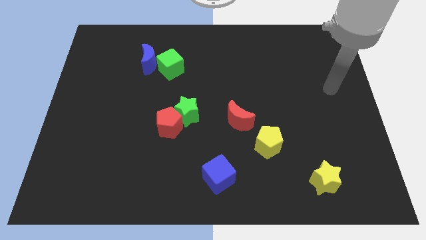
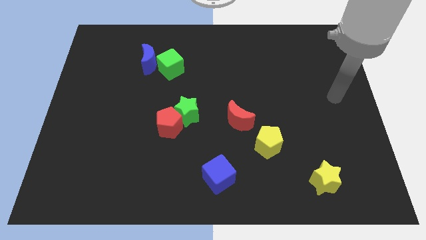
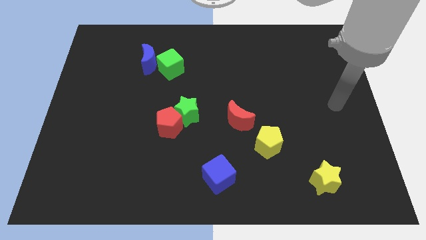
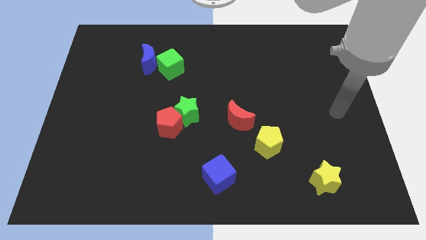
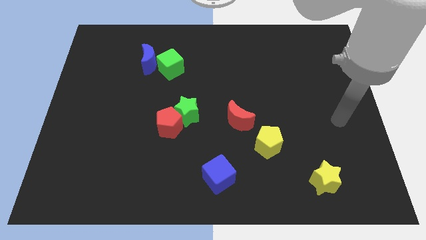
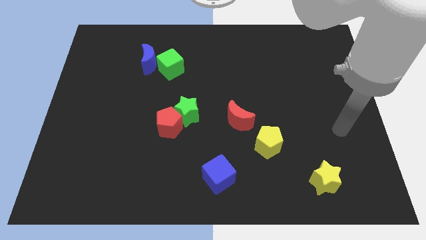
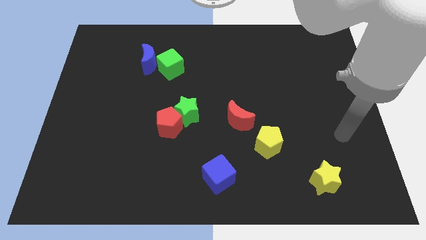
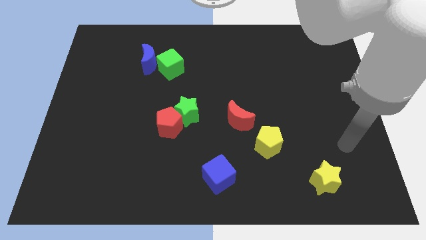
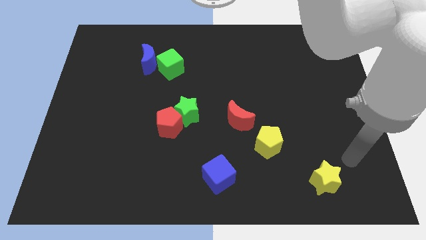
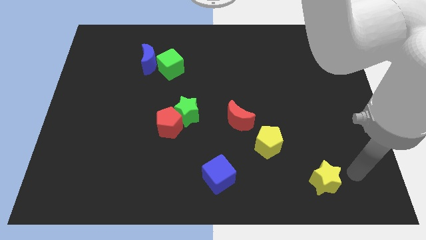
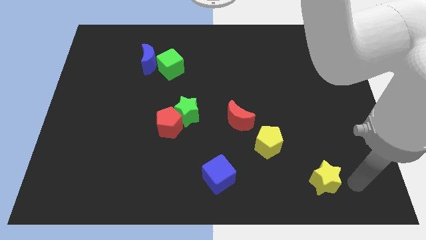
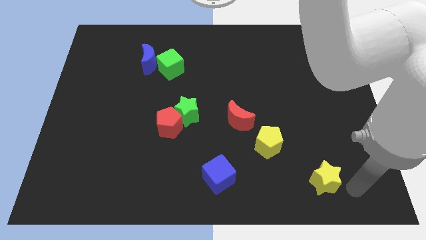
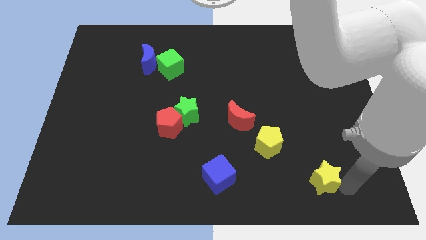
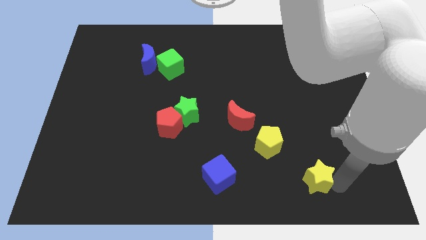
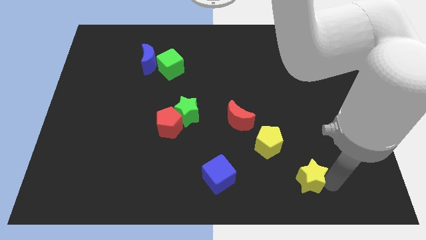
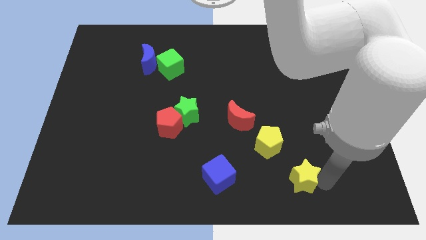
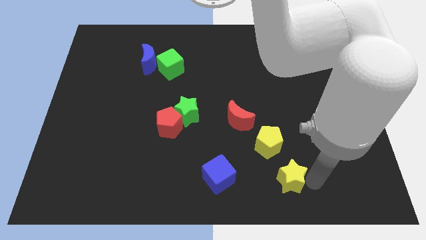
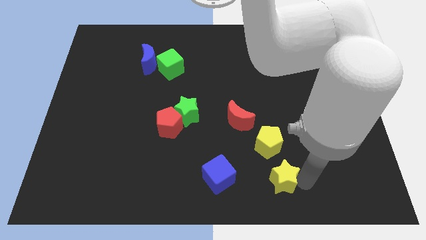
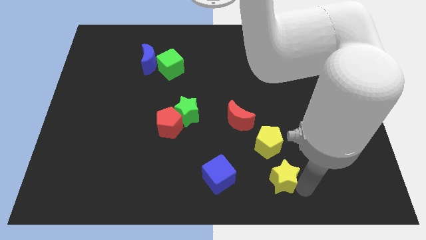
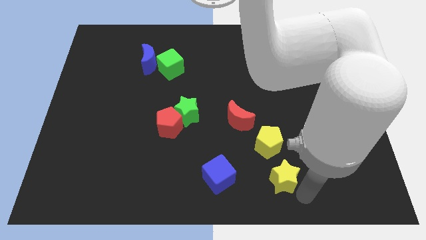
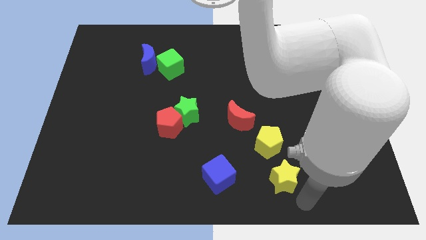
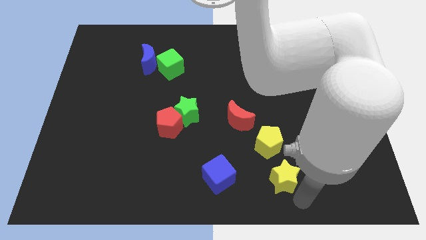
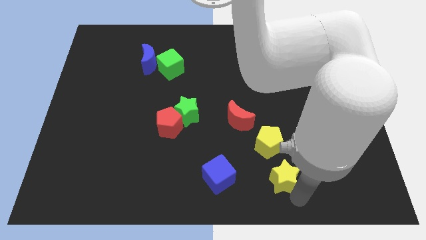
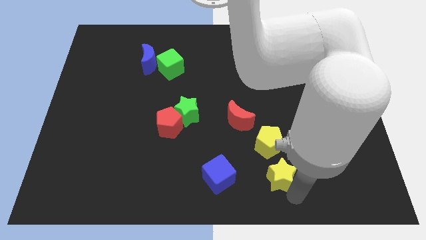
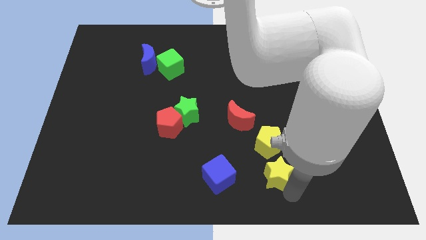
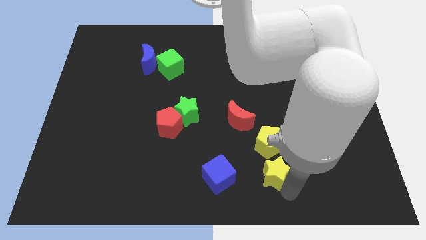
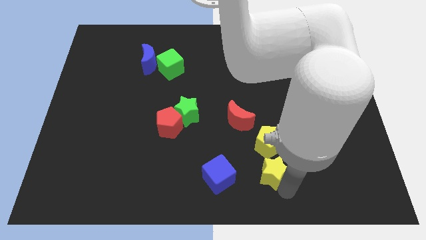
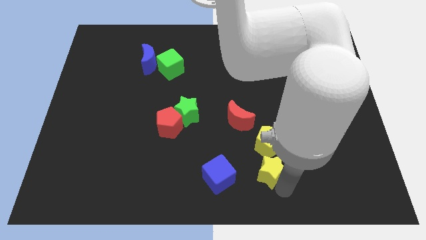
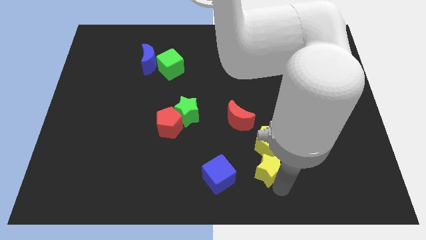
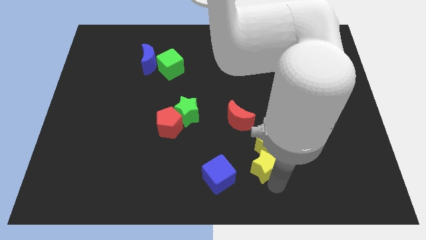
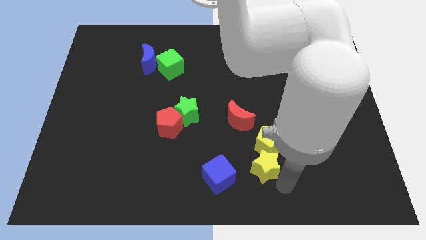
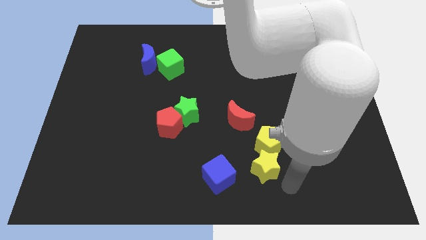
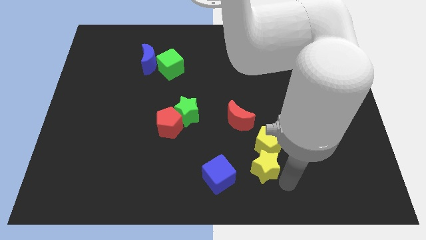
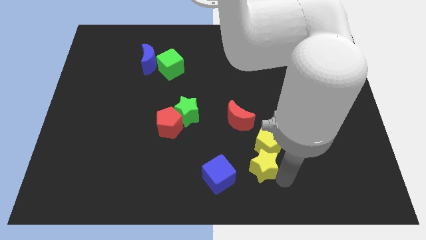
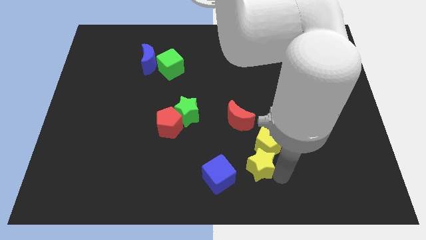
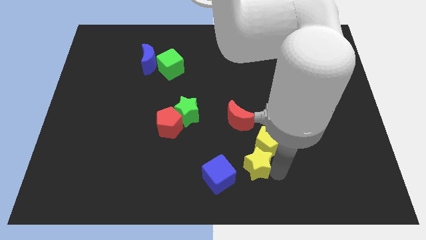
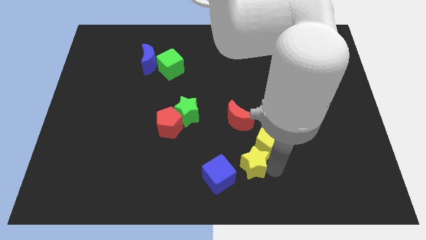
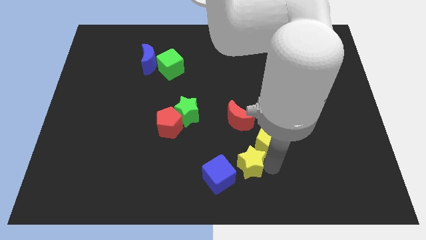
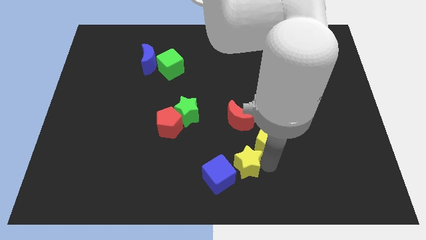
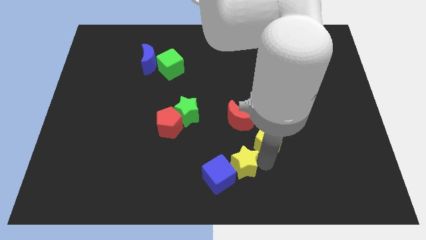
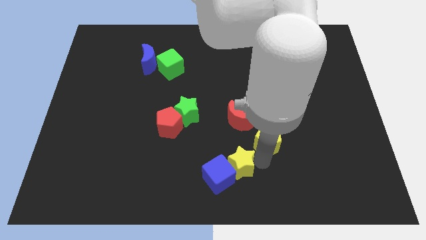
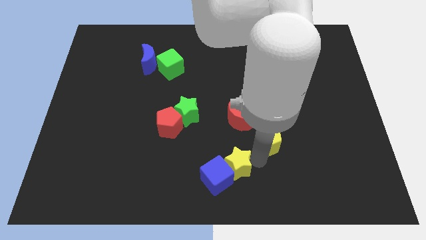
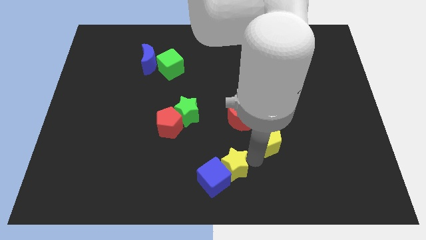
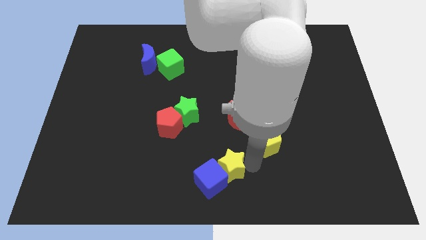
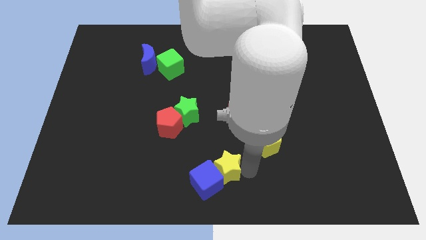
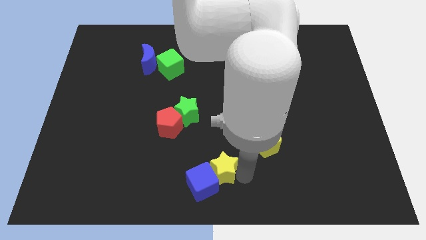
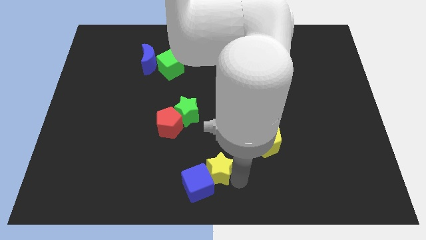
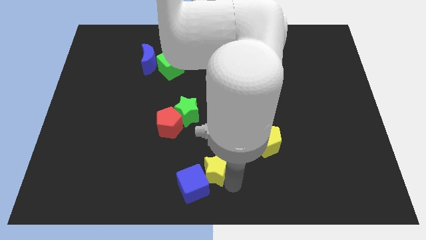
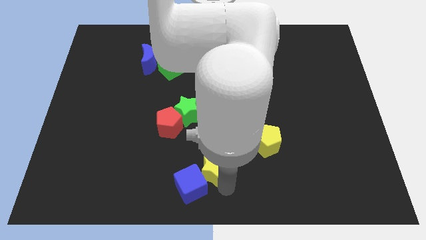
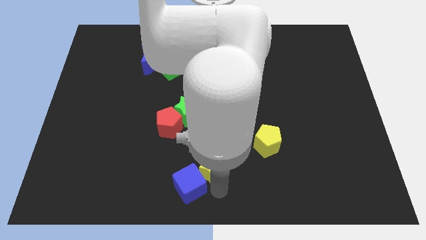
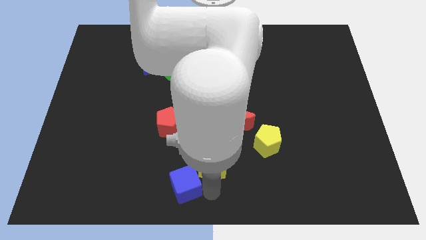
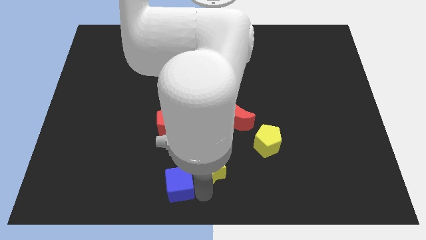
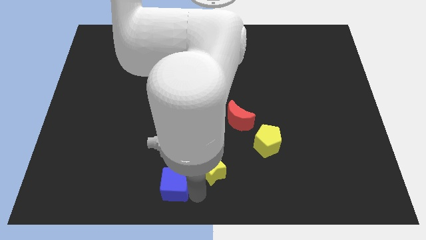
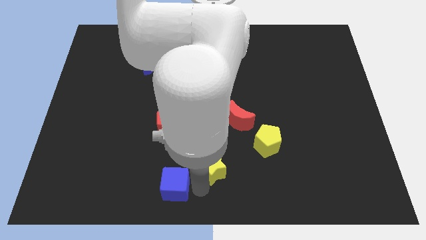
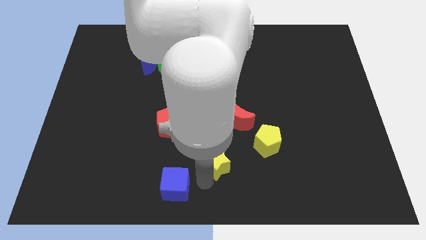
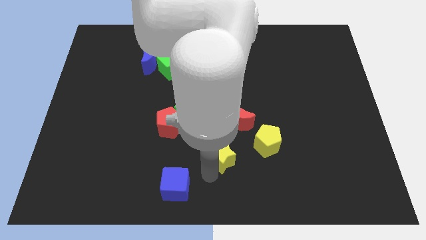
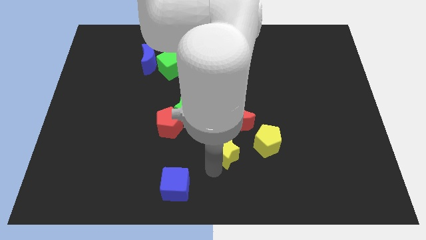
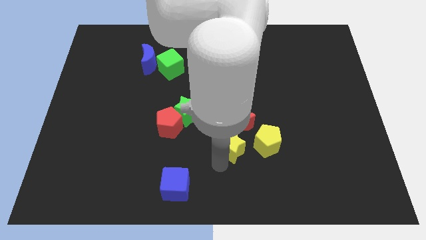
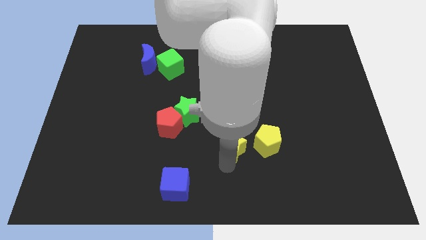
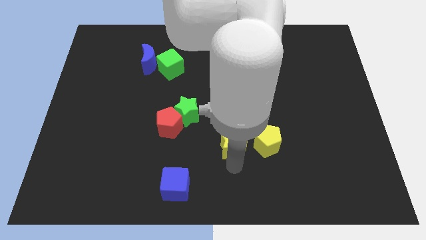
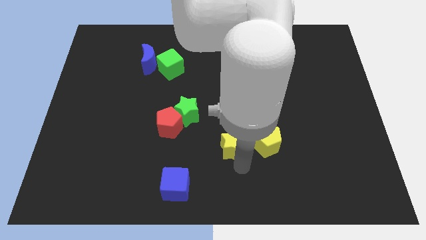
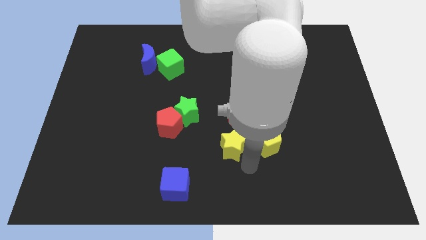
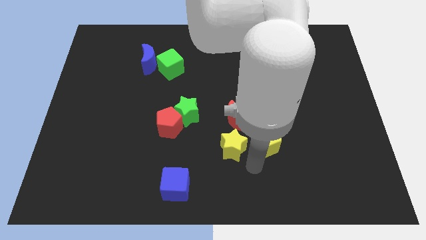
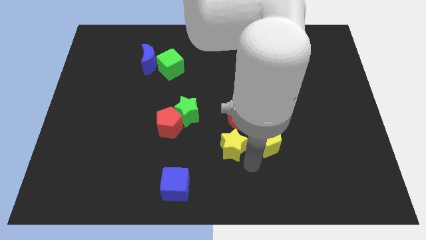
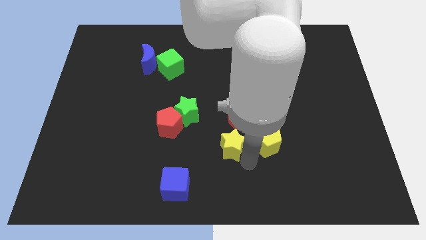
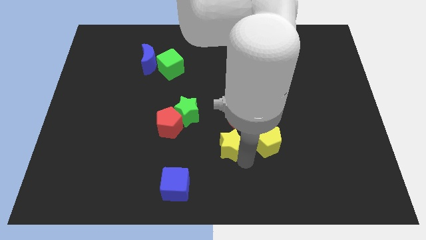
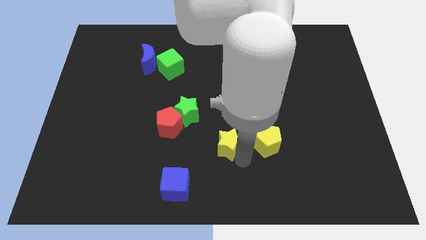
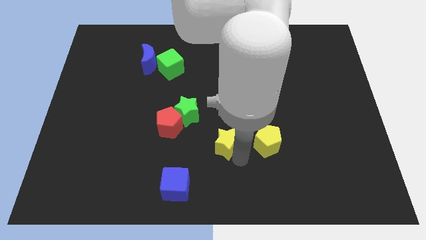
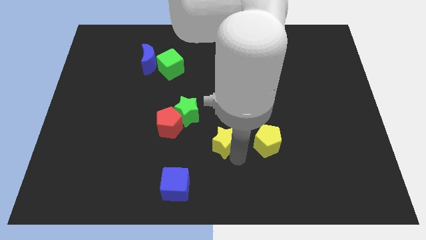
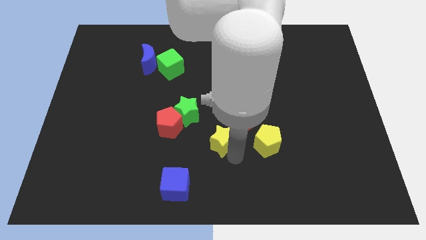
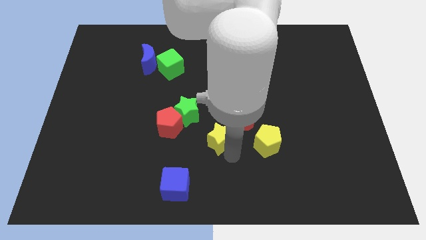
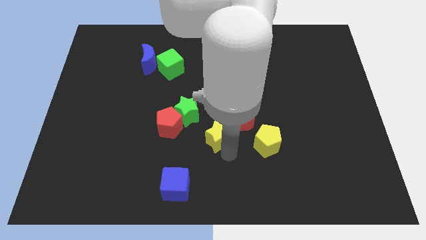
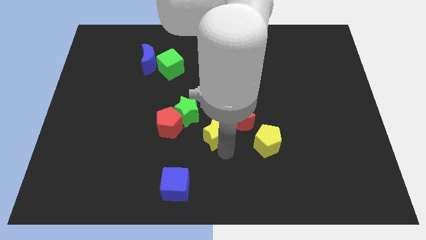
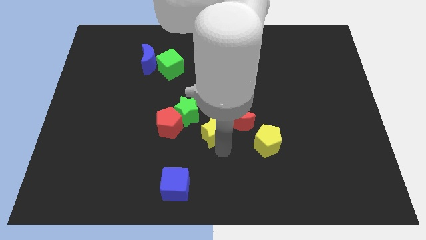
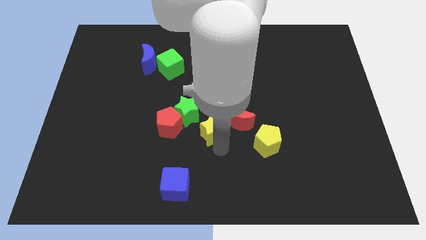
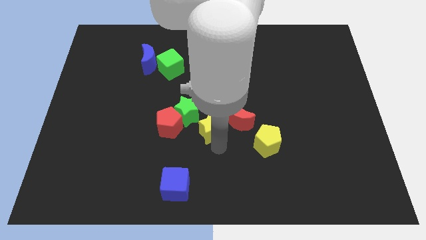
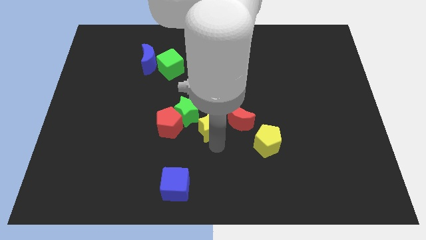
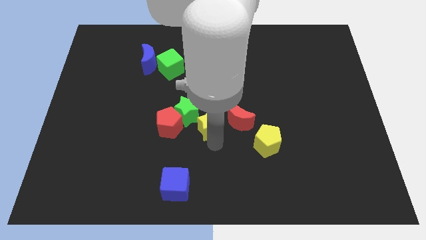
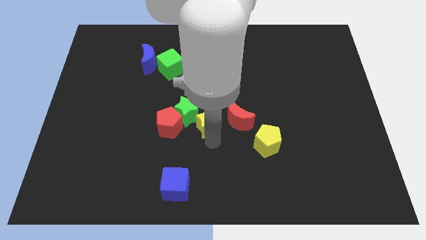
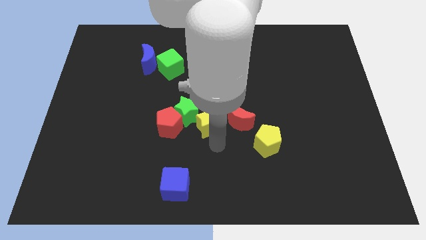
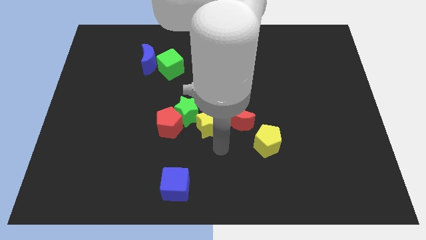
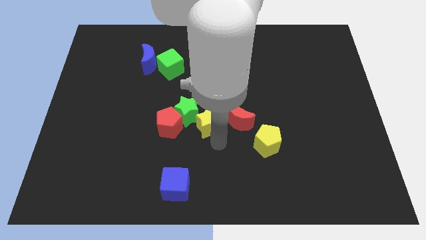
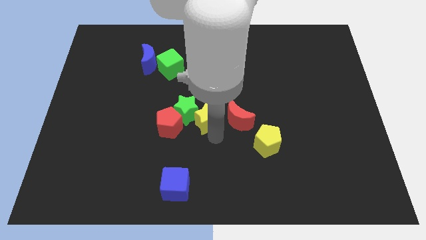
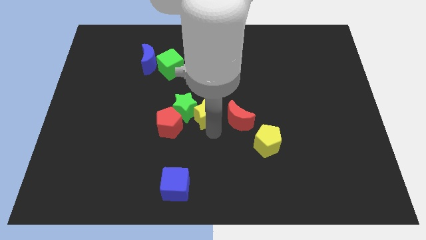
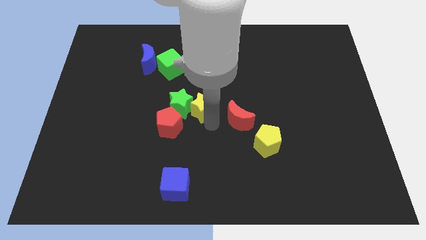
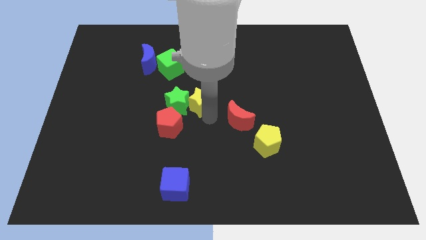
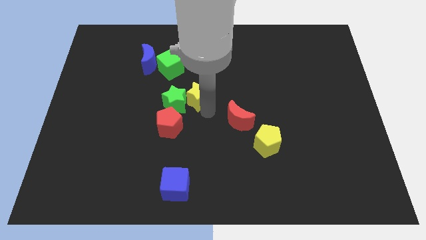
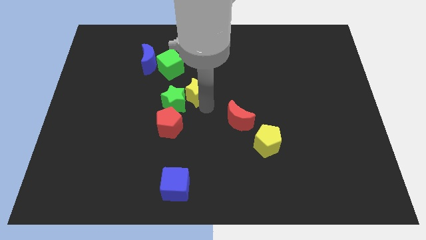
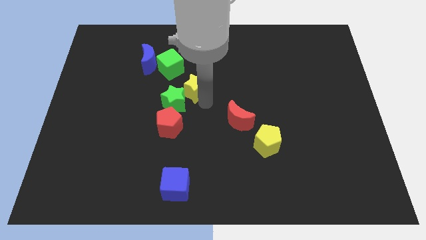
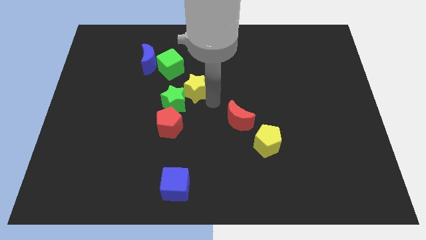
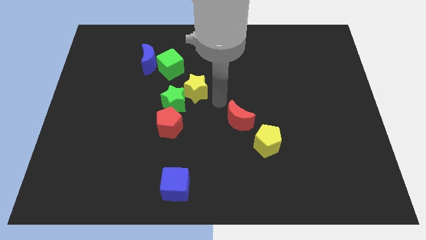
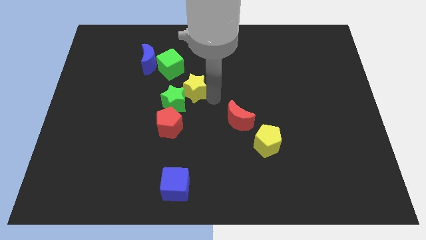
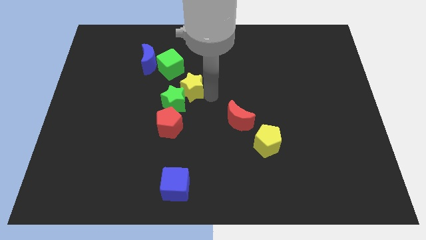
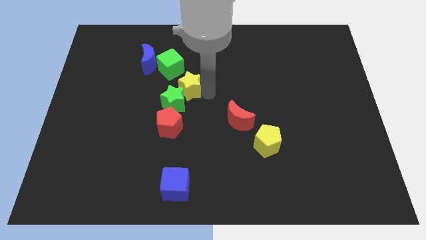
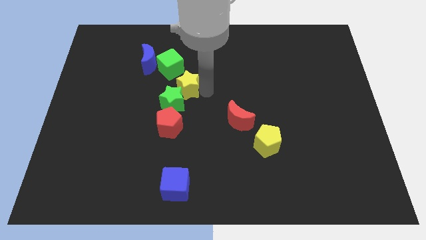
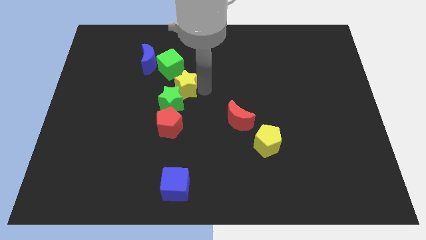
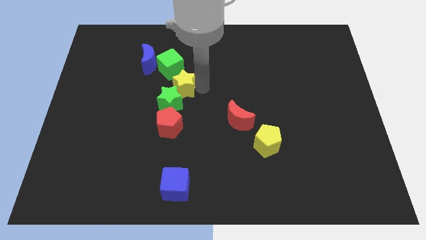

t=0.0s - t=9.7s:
put the yellow star to the bottom right of the blue moon
